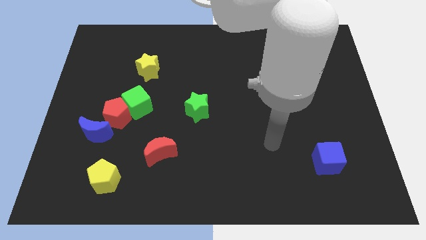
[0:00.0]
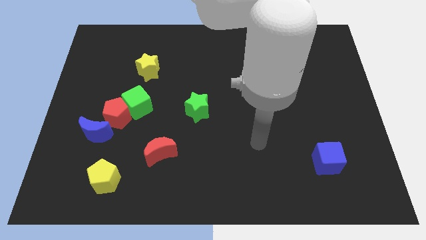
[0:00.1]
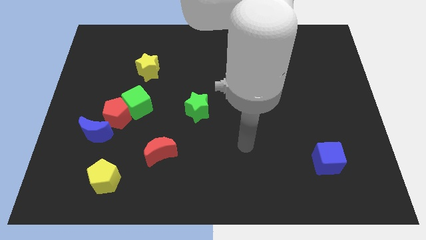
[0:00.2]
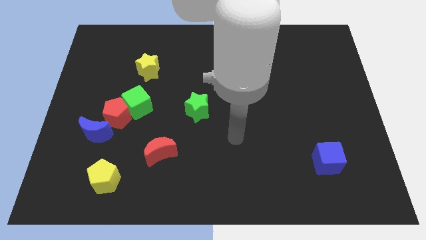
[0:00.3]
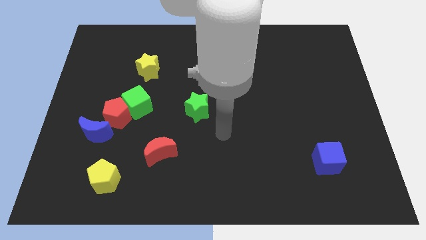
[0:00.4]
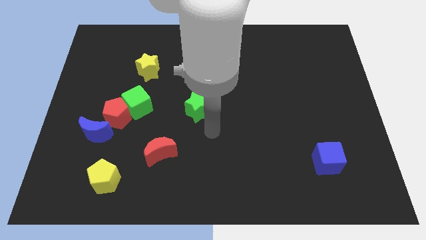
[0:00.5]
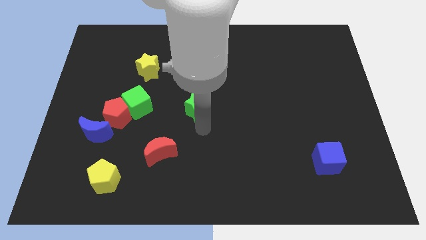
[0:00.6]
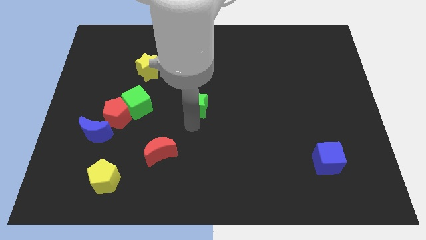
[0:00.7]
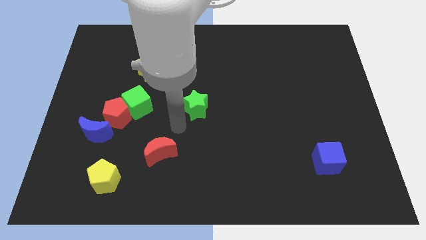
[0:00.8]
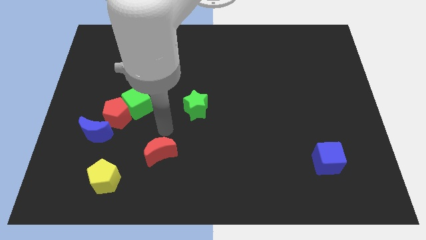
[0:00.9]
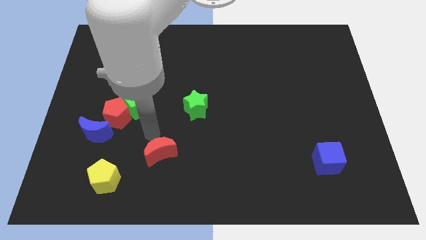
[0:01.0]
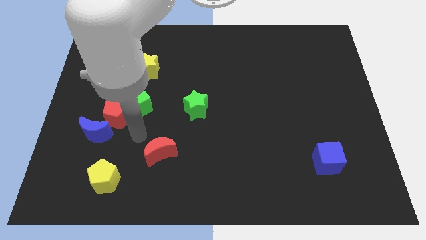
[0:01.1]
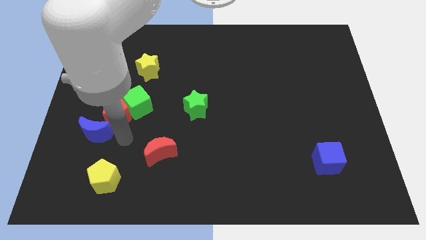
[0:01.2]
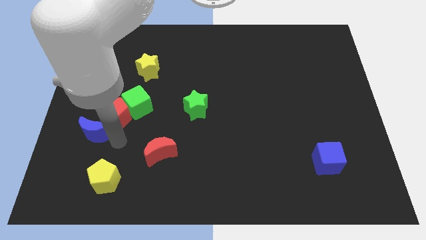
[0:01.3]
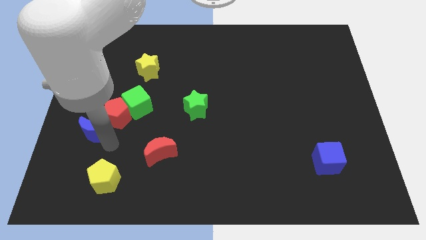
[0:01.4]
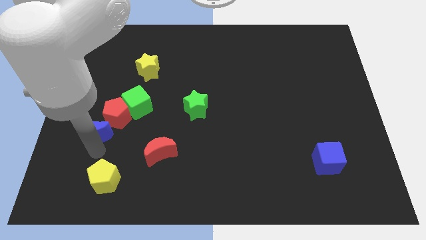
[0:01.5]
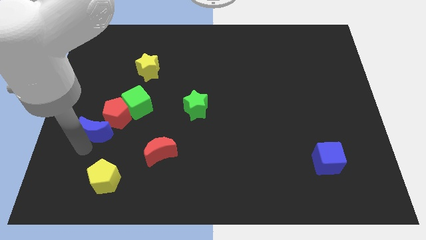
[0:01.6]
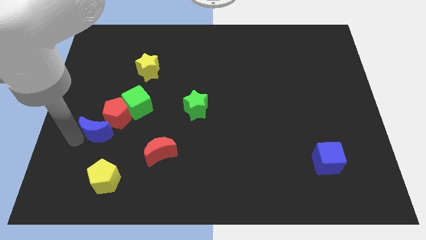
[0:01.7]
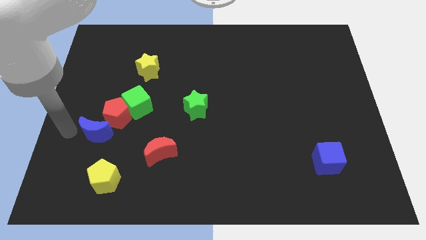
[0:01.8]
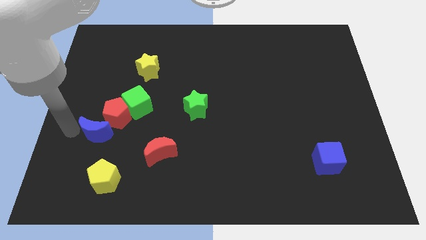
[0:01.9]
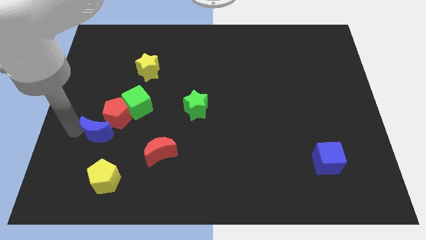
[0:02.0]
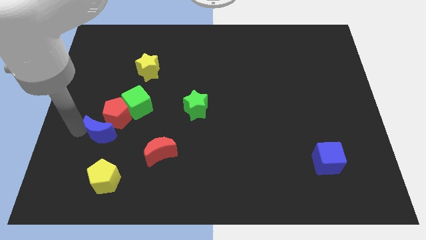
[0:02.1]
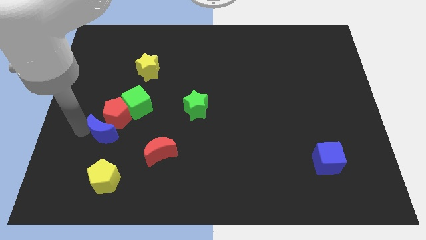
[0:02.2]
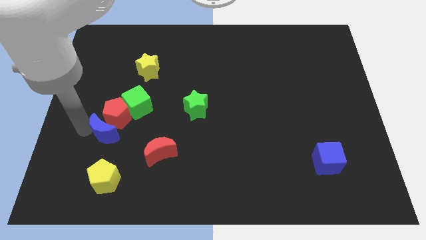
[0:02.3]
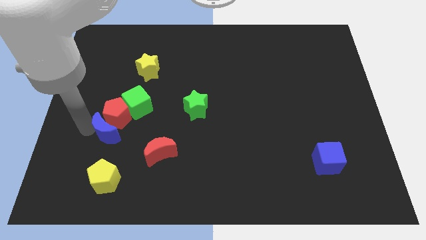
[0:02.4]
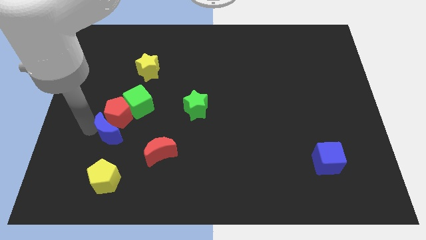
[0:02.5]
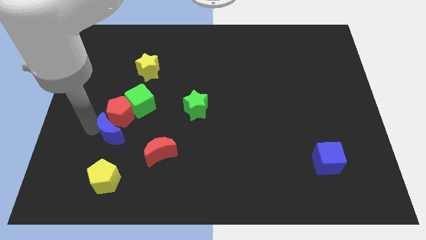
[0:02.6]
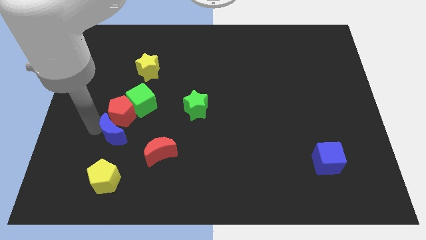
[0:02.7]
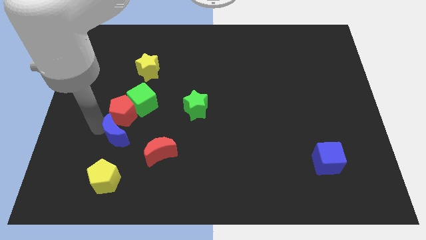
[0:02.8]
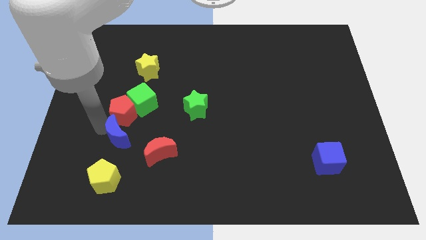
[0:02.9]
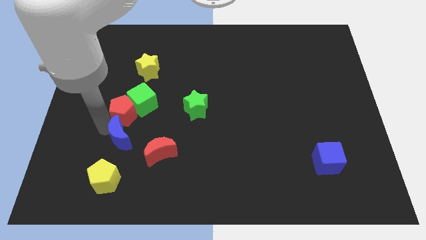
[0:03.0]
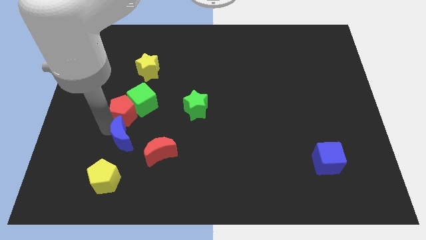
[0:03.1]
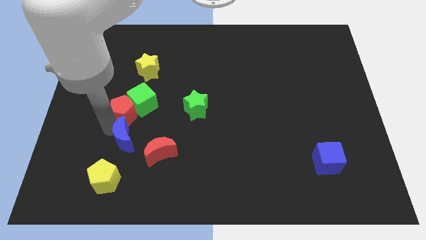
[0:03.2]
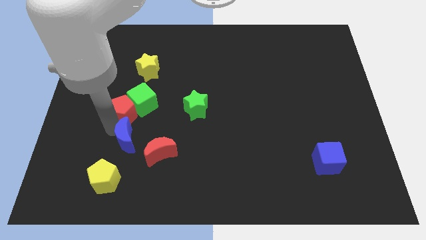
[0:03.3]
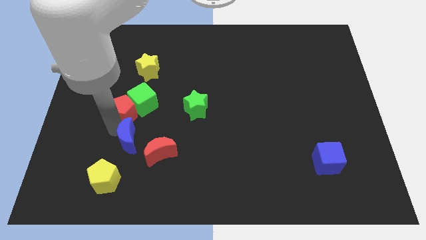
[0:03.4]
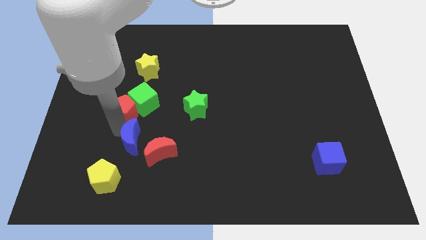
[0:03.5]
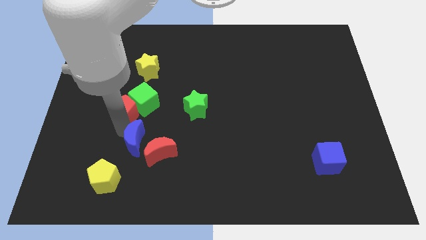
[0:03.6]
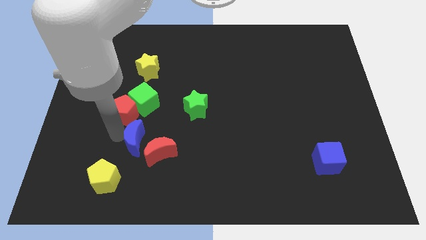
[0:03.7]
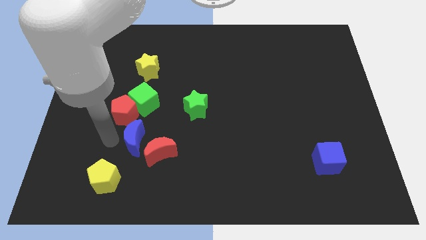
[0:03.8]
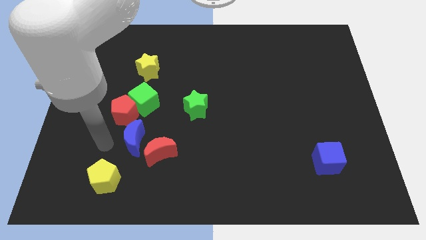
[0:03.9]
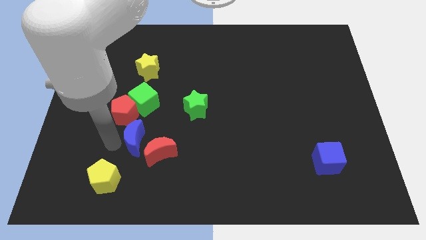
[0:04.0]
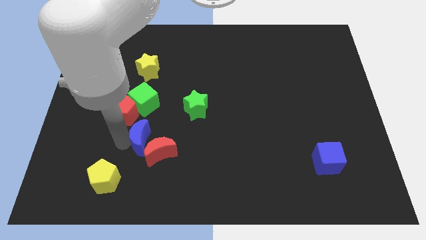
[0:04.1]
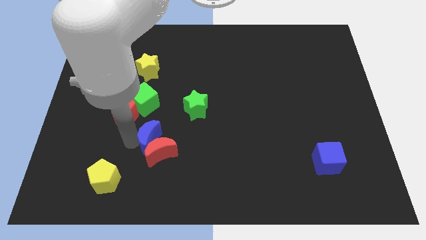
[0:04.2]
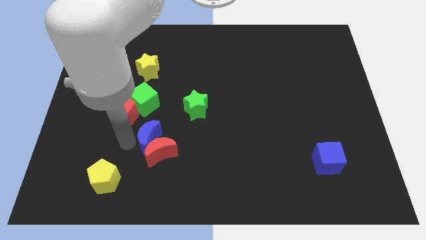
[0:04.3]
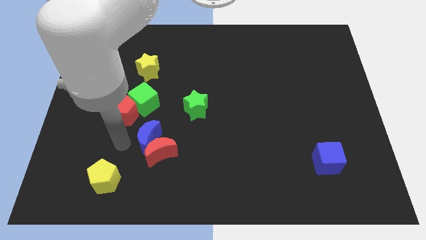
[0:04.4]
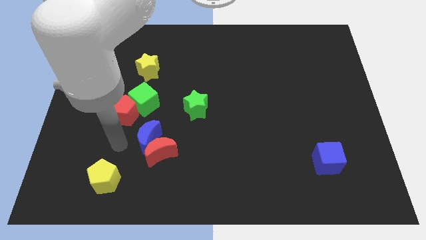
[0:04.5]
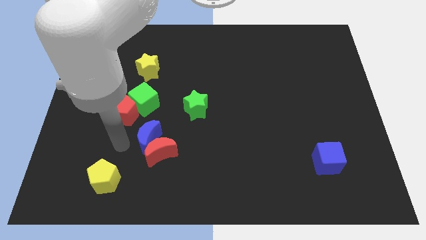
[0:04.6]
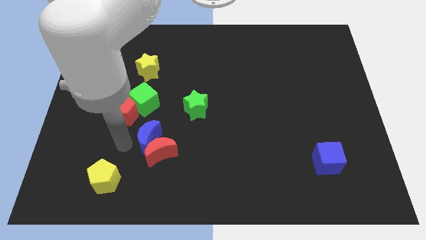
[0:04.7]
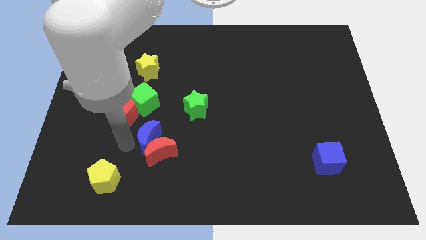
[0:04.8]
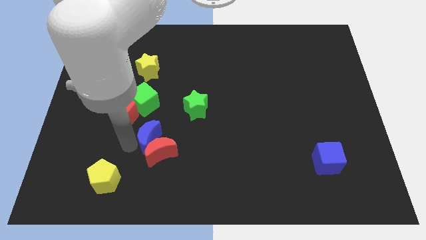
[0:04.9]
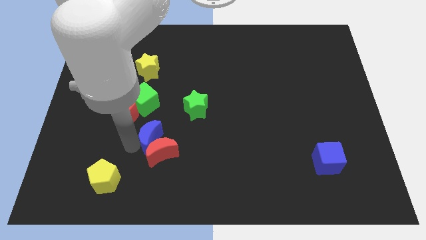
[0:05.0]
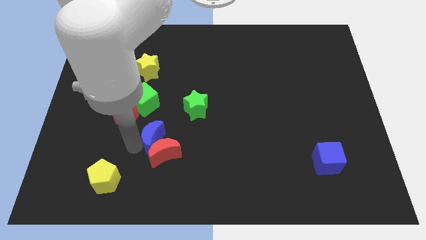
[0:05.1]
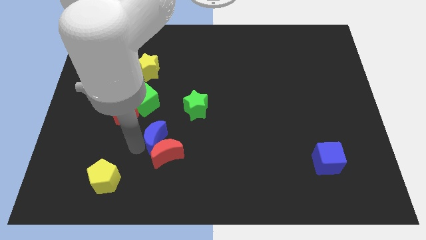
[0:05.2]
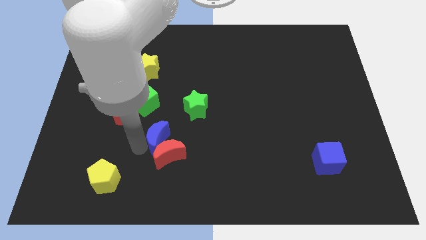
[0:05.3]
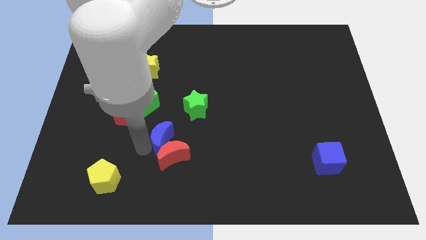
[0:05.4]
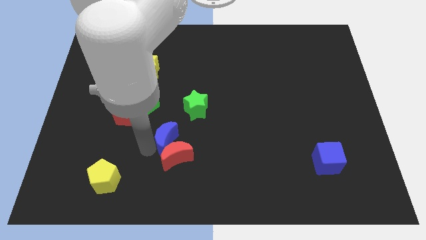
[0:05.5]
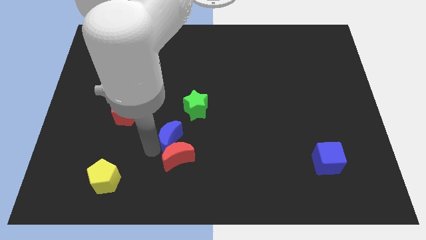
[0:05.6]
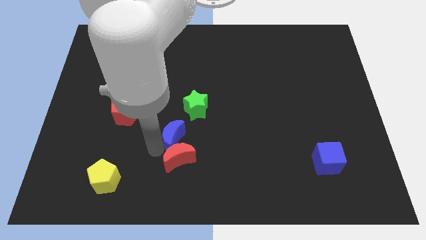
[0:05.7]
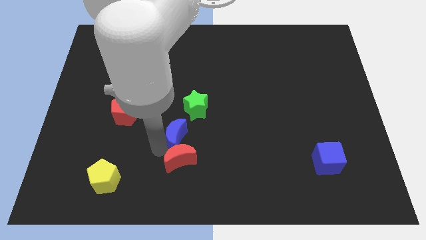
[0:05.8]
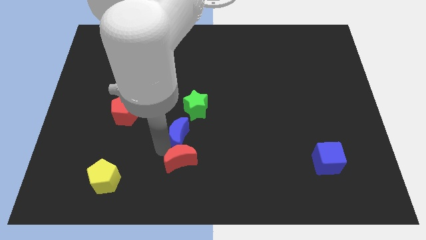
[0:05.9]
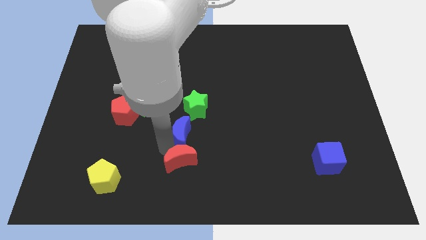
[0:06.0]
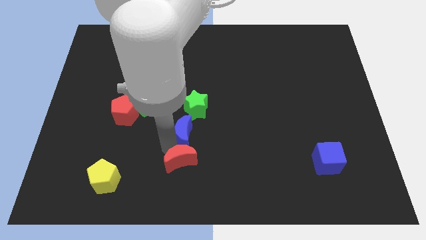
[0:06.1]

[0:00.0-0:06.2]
push the blue moon to the right

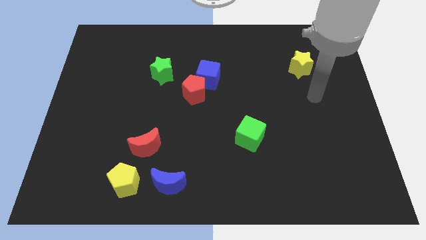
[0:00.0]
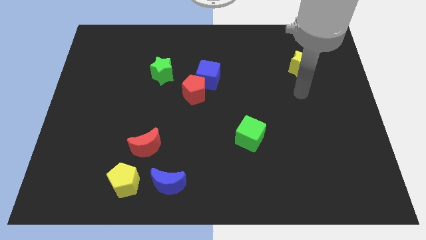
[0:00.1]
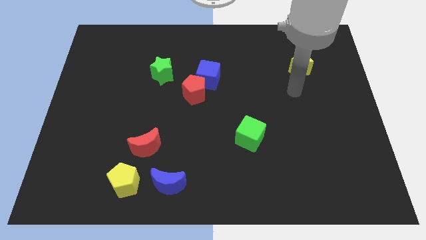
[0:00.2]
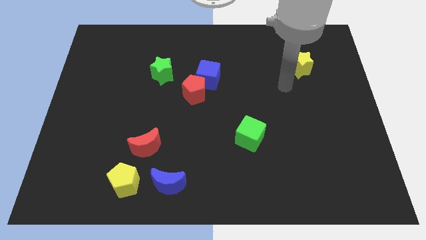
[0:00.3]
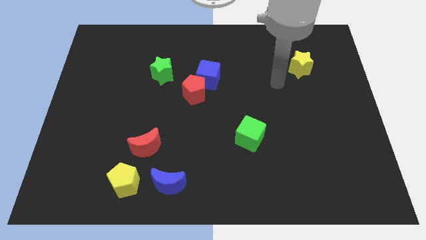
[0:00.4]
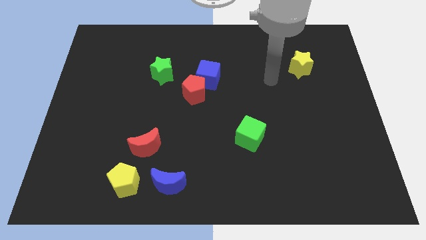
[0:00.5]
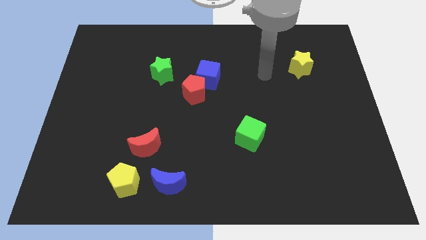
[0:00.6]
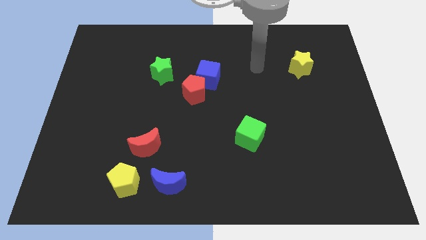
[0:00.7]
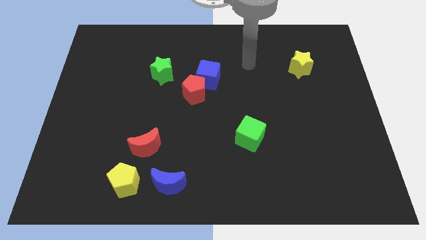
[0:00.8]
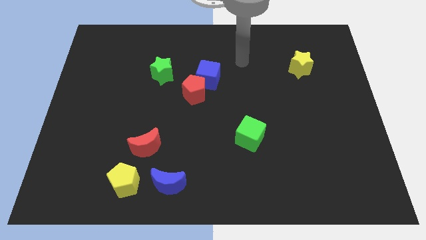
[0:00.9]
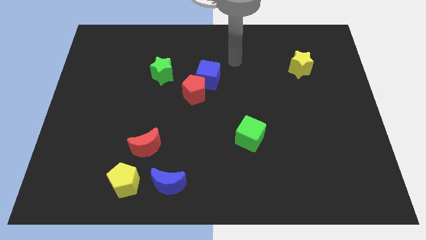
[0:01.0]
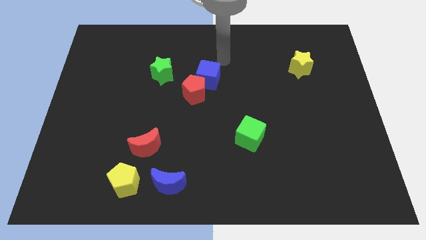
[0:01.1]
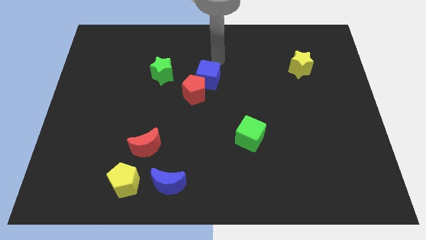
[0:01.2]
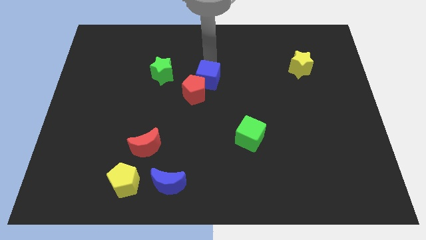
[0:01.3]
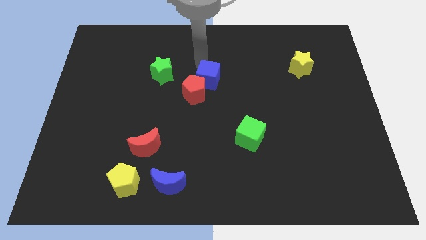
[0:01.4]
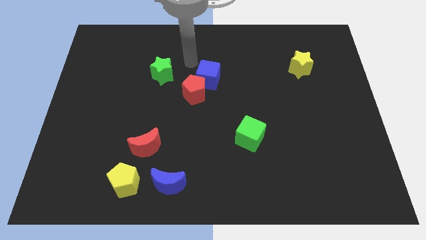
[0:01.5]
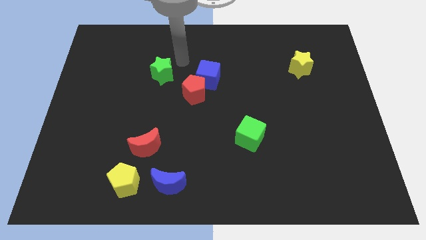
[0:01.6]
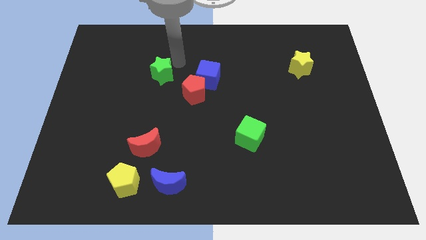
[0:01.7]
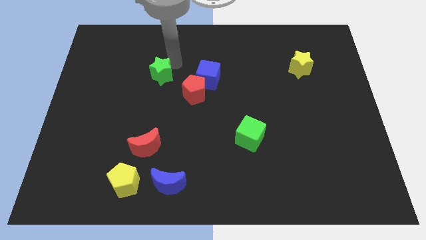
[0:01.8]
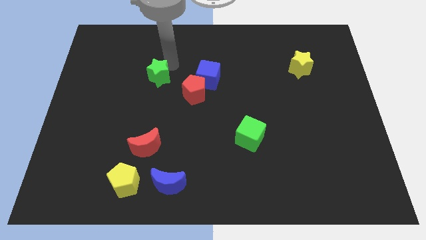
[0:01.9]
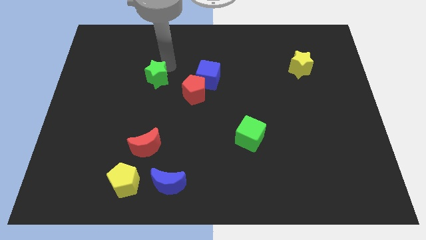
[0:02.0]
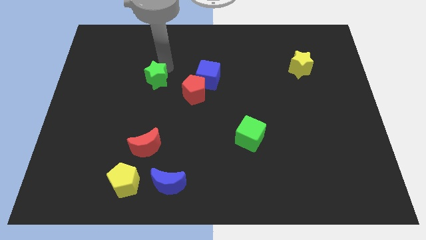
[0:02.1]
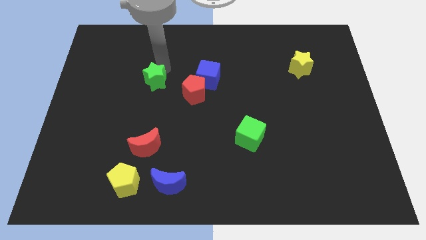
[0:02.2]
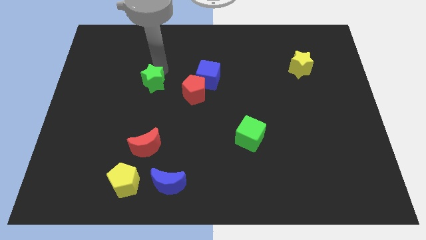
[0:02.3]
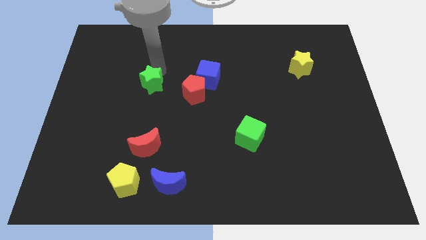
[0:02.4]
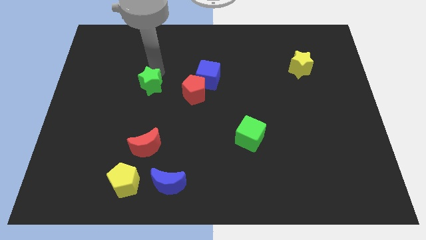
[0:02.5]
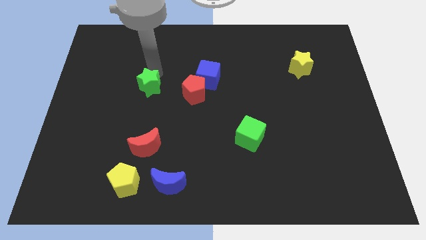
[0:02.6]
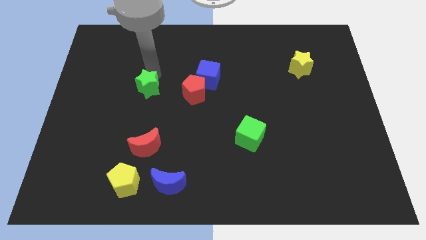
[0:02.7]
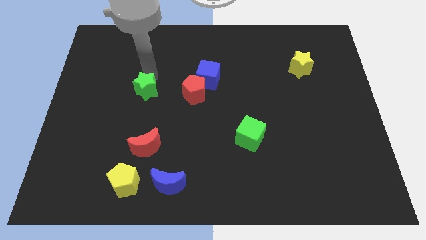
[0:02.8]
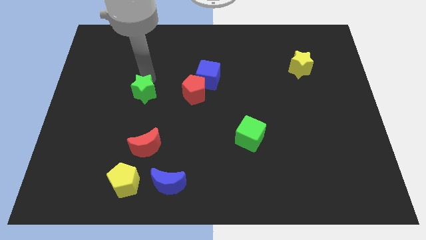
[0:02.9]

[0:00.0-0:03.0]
move the green star down and to the left diagonally slightly
